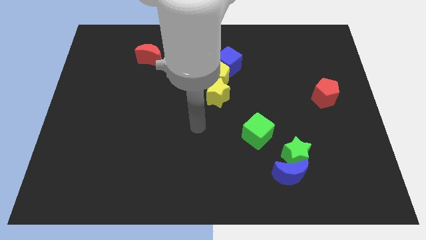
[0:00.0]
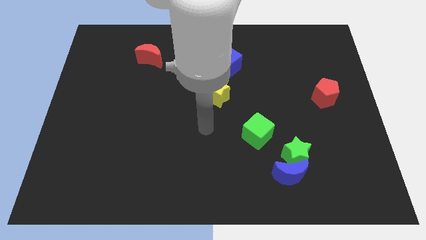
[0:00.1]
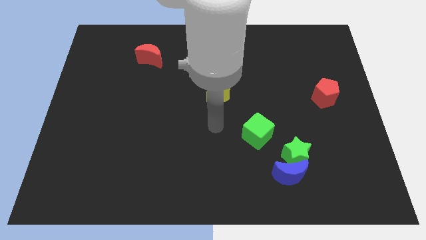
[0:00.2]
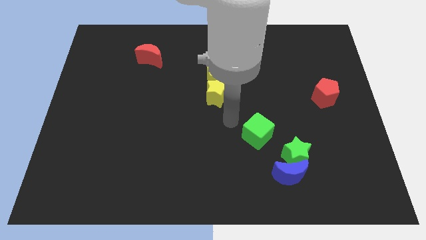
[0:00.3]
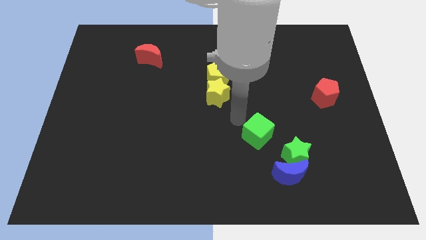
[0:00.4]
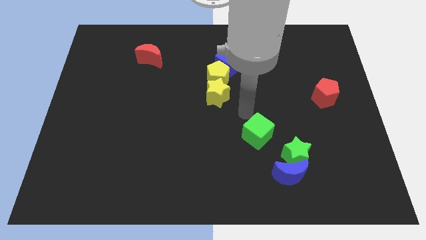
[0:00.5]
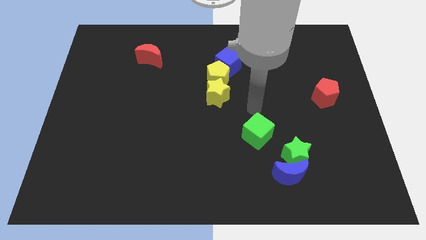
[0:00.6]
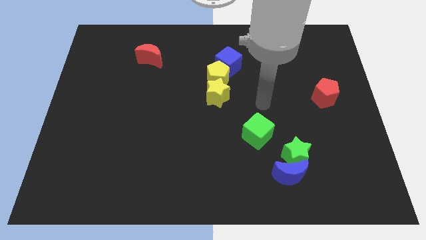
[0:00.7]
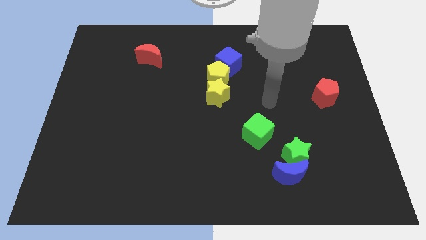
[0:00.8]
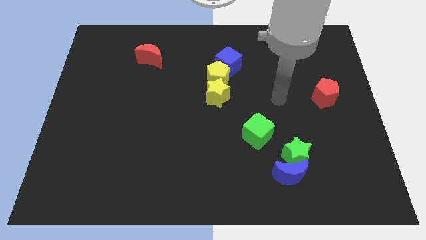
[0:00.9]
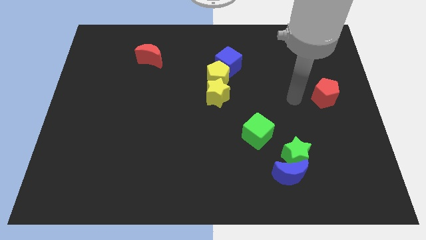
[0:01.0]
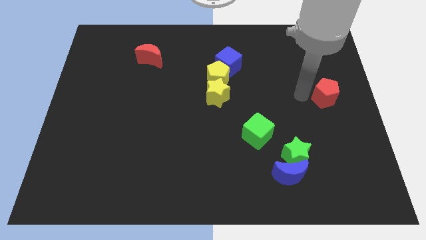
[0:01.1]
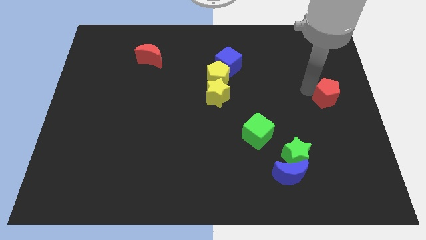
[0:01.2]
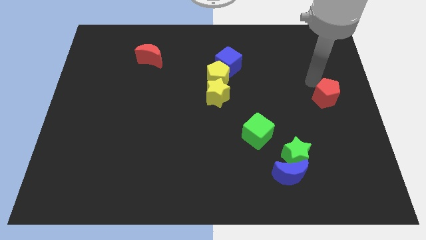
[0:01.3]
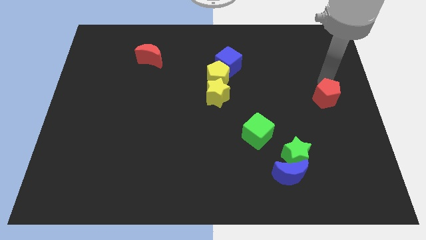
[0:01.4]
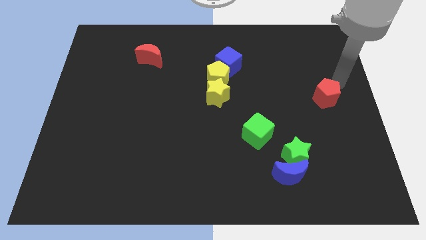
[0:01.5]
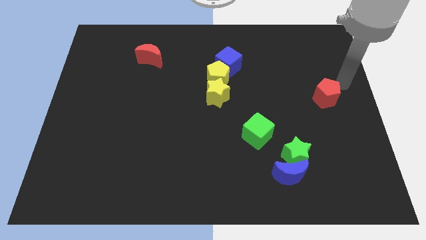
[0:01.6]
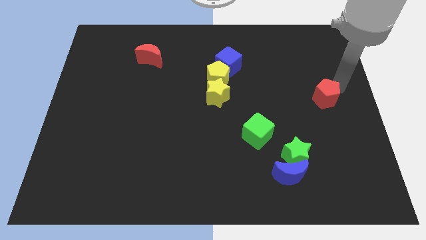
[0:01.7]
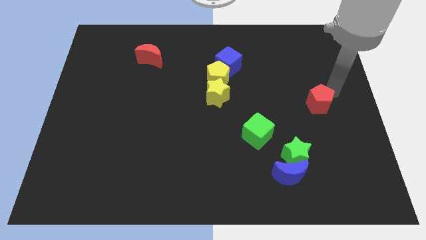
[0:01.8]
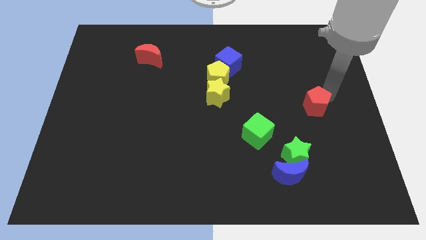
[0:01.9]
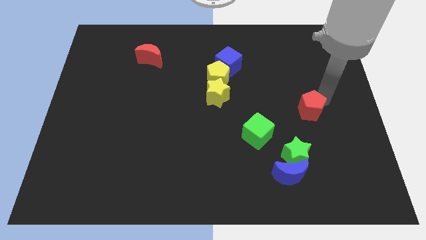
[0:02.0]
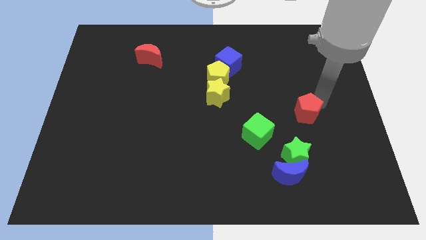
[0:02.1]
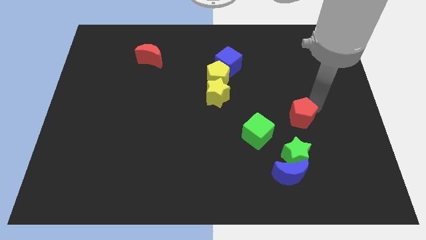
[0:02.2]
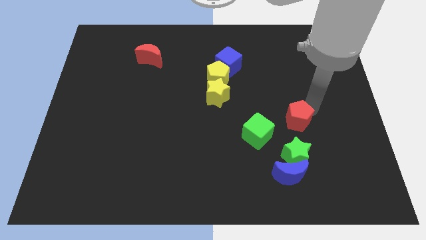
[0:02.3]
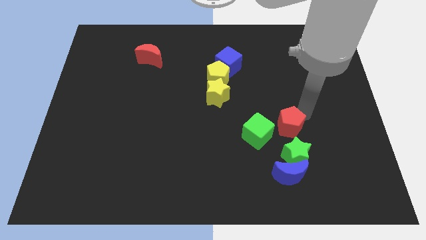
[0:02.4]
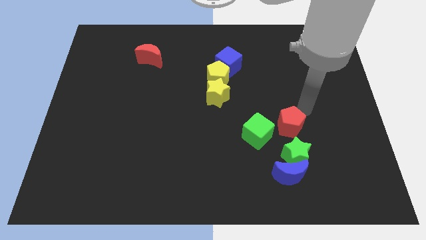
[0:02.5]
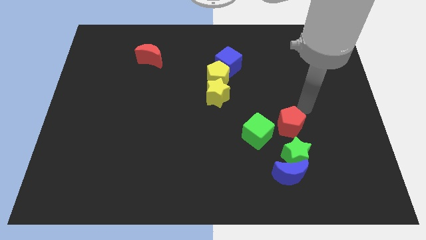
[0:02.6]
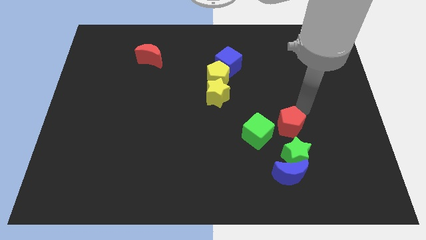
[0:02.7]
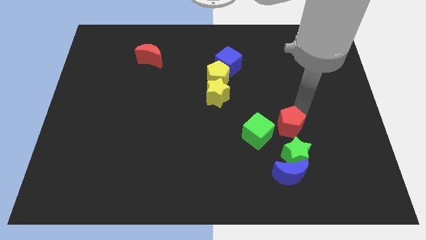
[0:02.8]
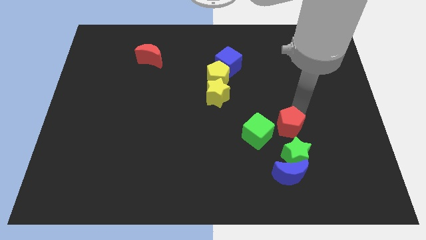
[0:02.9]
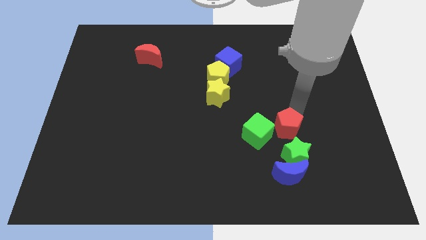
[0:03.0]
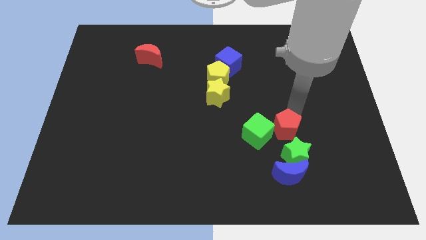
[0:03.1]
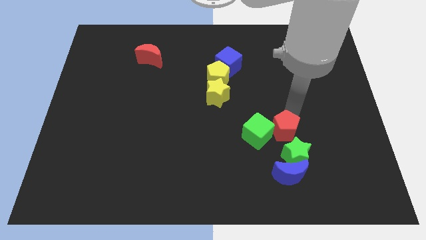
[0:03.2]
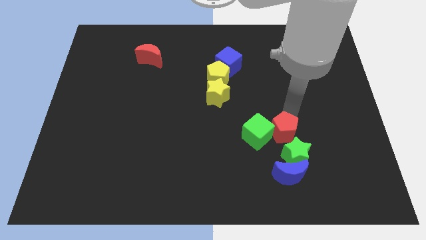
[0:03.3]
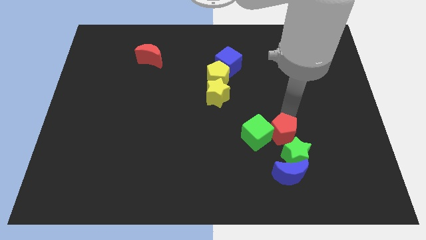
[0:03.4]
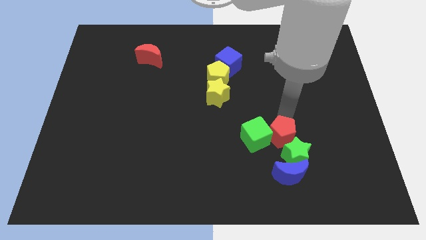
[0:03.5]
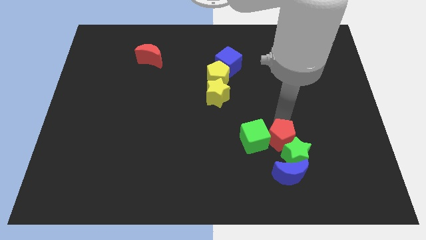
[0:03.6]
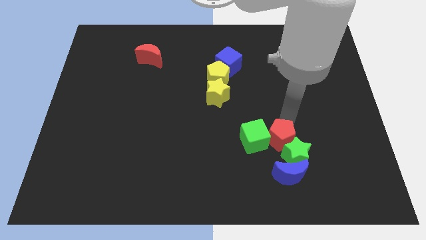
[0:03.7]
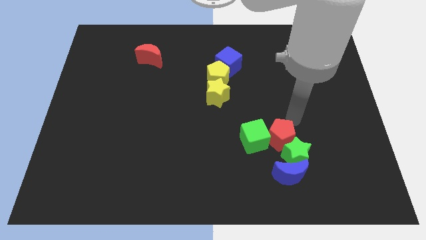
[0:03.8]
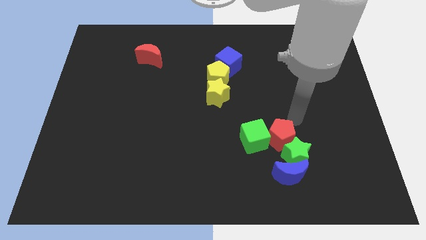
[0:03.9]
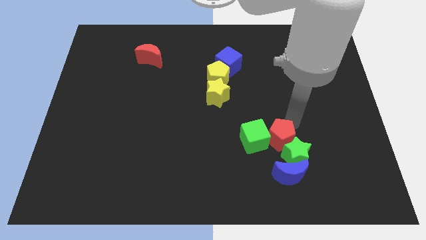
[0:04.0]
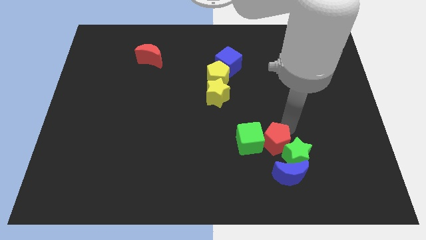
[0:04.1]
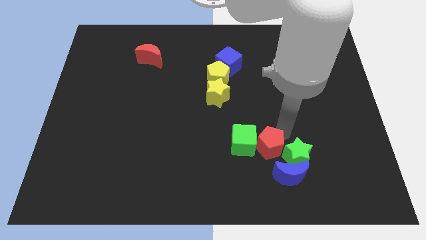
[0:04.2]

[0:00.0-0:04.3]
move the red pentagon downwards and left

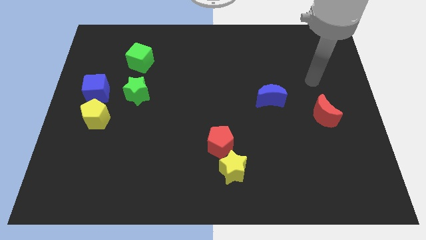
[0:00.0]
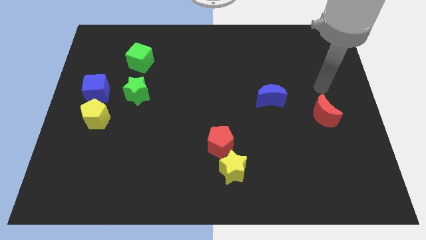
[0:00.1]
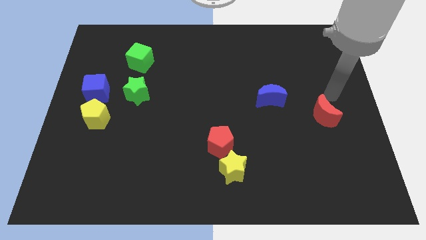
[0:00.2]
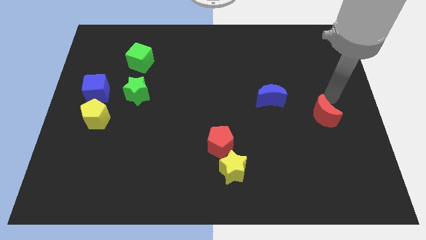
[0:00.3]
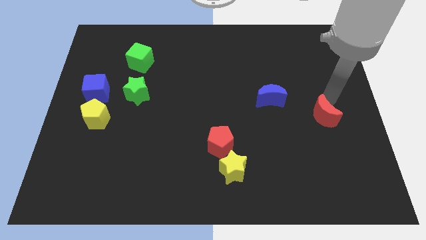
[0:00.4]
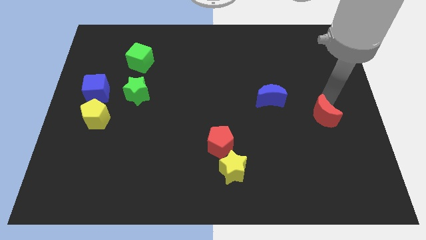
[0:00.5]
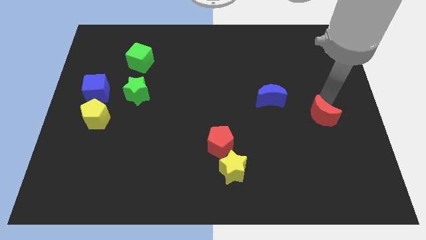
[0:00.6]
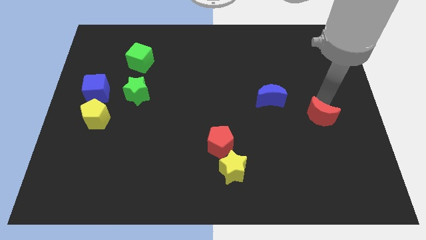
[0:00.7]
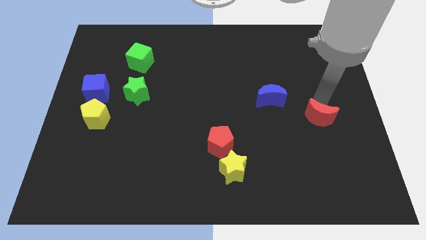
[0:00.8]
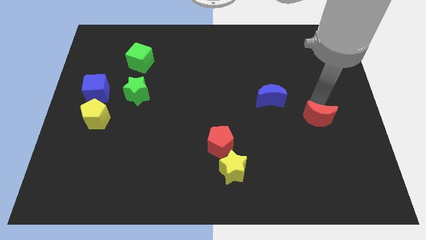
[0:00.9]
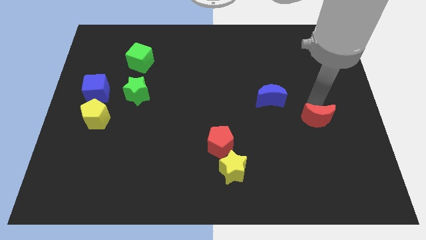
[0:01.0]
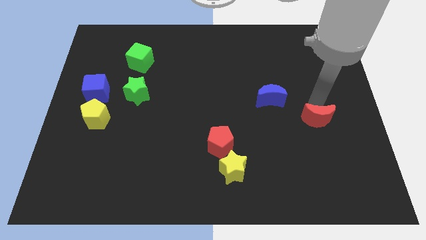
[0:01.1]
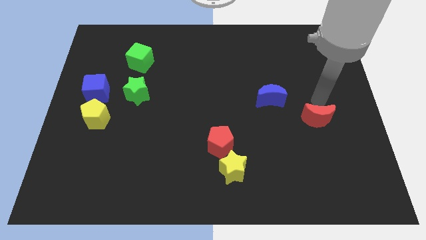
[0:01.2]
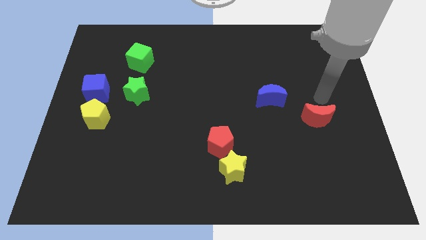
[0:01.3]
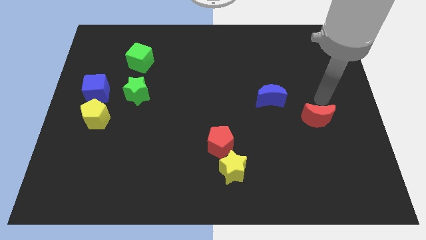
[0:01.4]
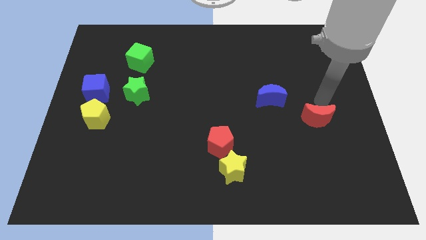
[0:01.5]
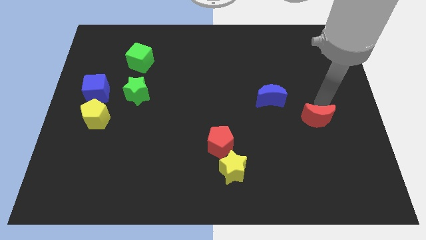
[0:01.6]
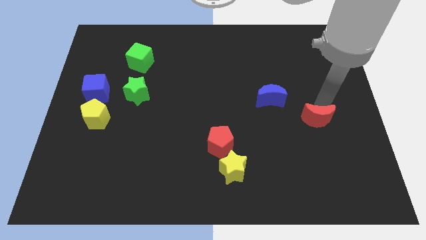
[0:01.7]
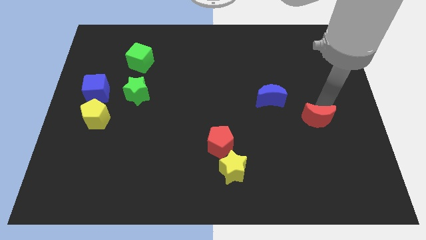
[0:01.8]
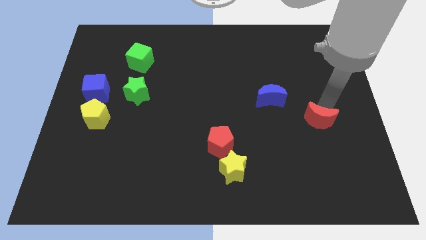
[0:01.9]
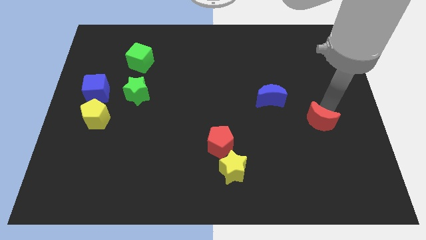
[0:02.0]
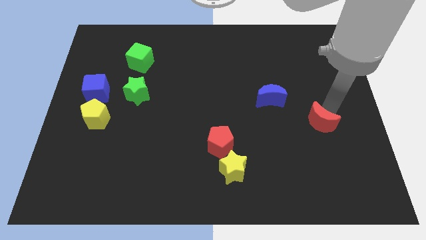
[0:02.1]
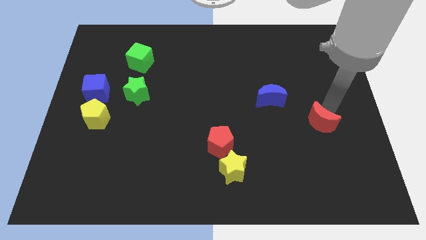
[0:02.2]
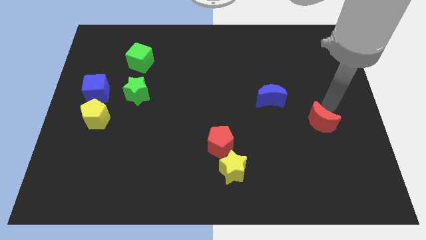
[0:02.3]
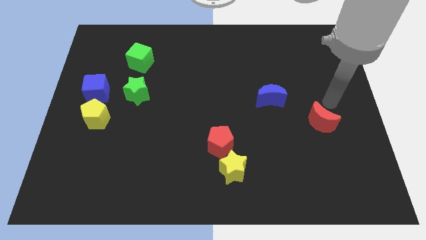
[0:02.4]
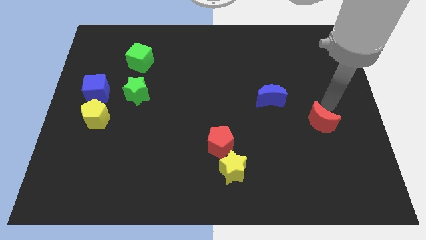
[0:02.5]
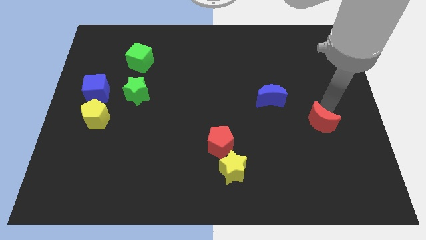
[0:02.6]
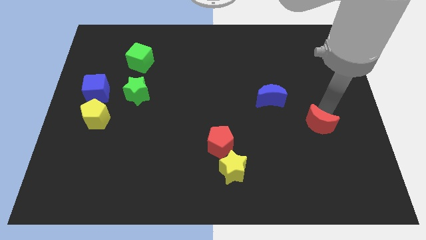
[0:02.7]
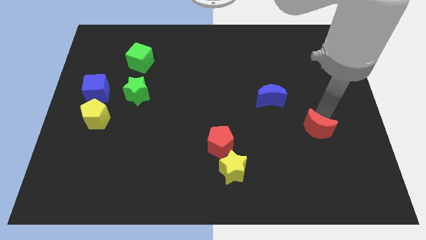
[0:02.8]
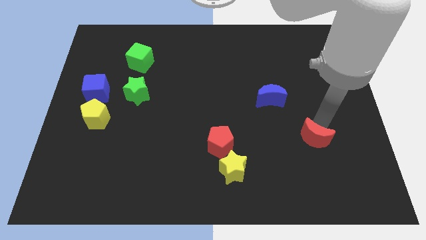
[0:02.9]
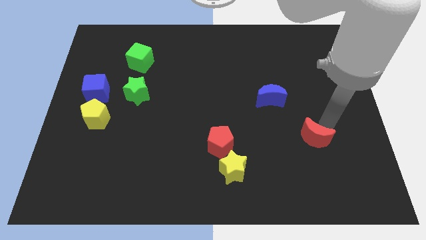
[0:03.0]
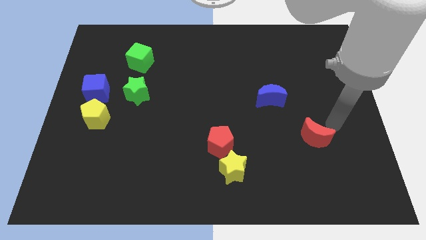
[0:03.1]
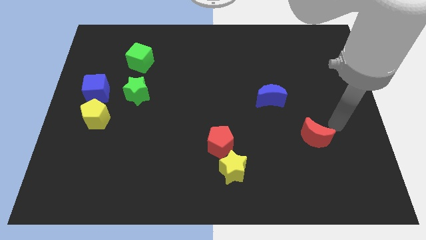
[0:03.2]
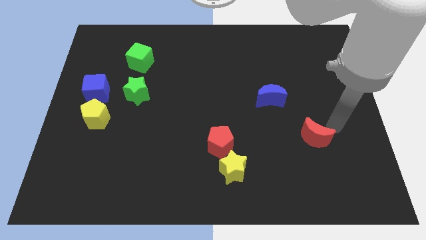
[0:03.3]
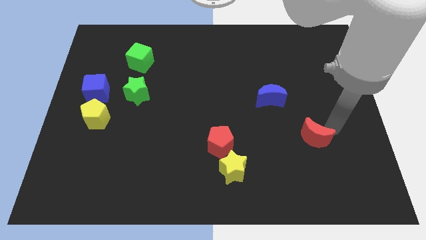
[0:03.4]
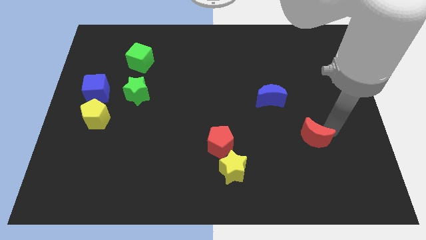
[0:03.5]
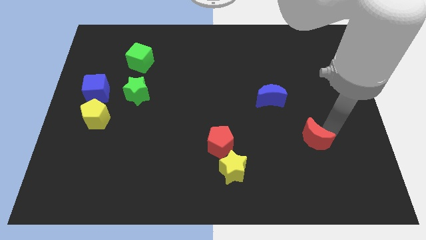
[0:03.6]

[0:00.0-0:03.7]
push the red moon slightly diagonally downwards and to the left

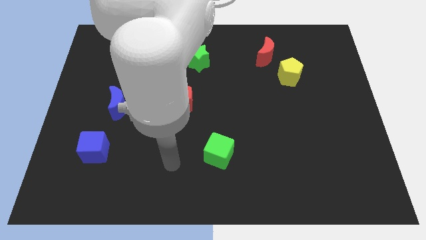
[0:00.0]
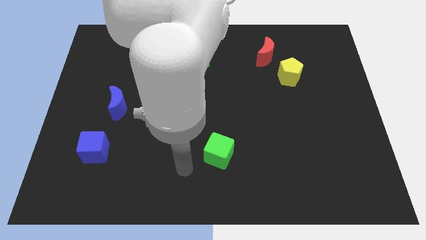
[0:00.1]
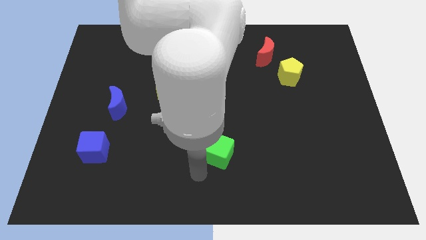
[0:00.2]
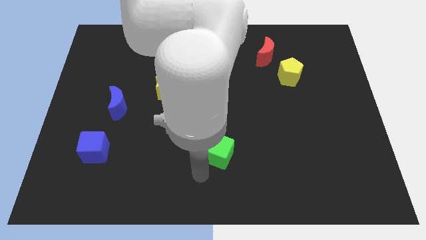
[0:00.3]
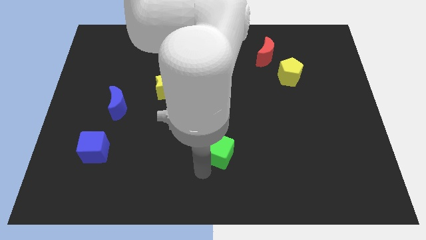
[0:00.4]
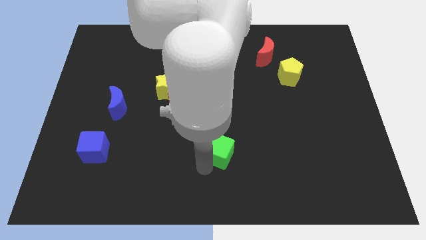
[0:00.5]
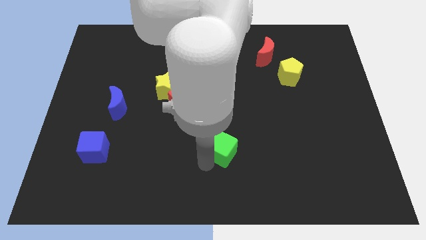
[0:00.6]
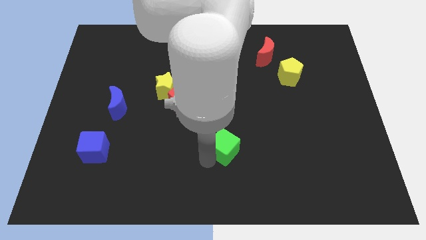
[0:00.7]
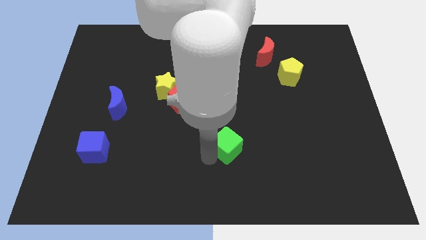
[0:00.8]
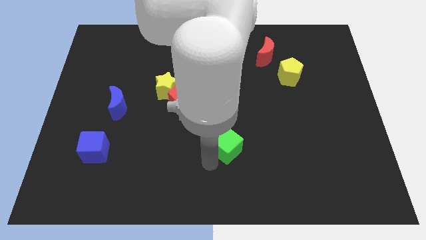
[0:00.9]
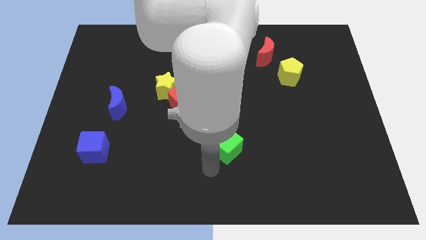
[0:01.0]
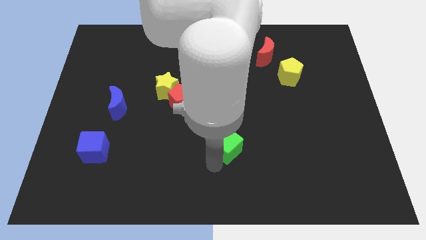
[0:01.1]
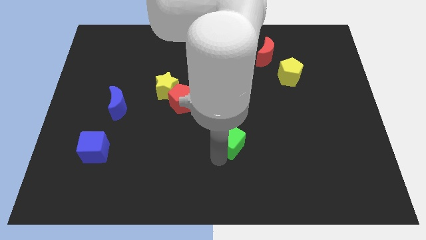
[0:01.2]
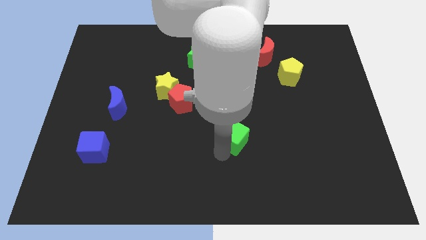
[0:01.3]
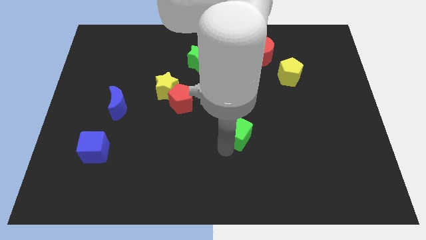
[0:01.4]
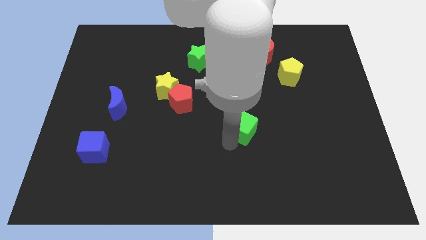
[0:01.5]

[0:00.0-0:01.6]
slightly push the green cube upwards and to the right diagonally
